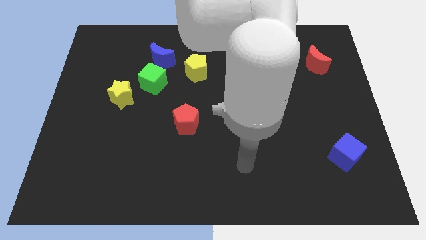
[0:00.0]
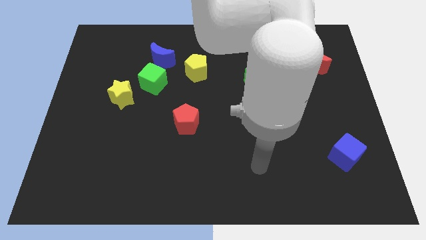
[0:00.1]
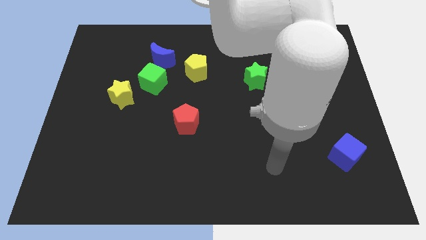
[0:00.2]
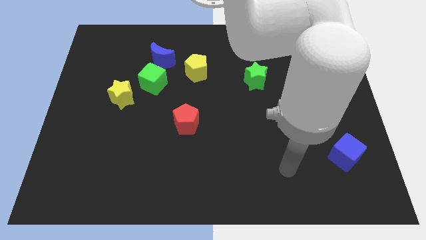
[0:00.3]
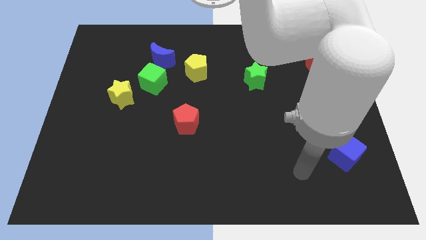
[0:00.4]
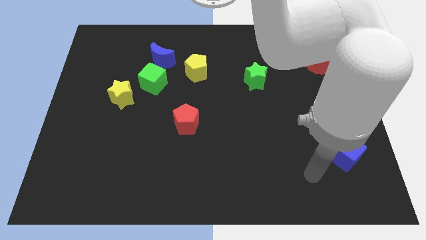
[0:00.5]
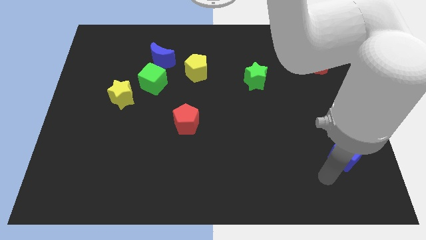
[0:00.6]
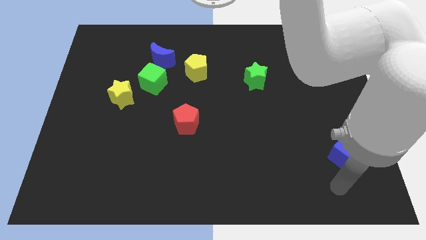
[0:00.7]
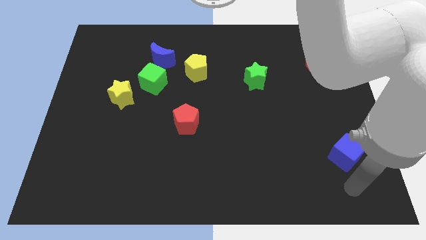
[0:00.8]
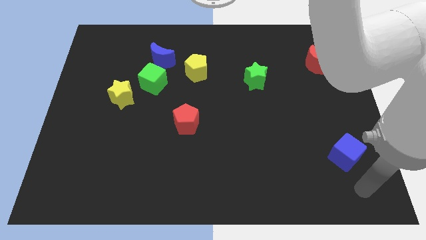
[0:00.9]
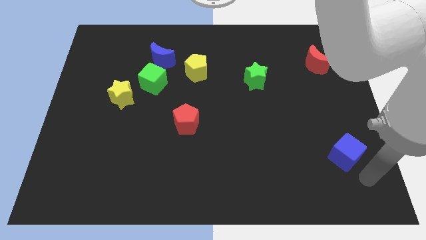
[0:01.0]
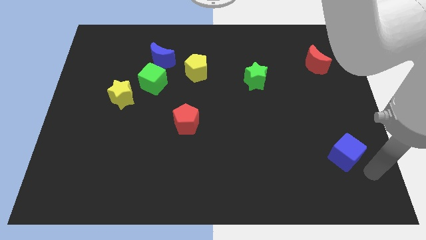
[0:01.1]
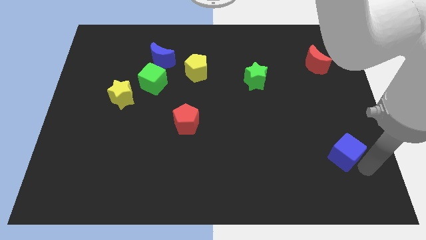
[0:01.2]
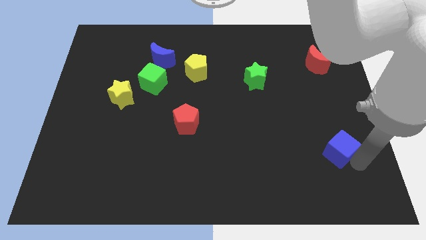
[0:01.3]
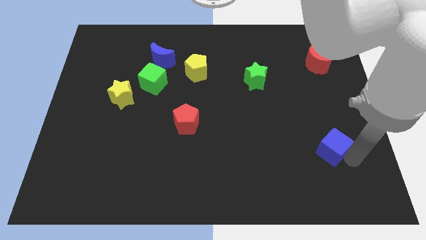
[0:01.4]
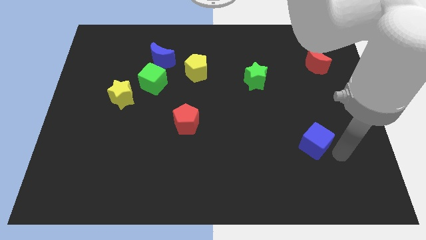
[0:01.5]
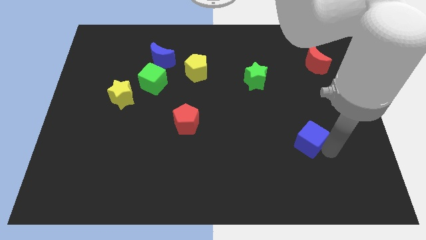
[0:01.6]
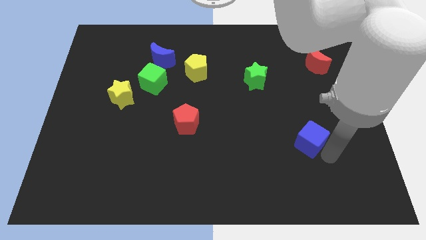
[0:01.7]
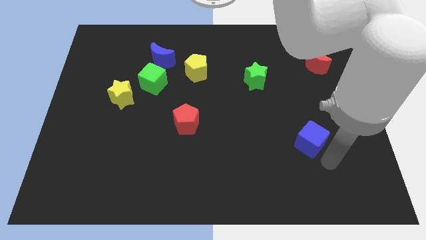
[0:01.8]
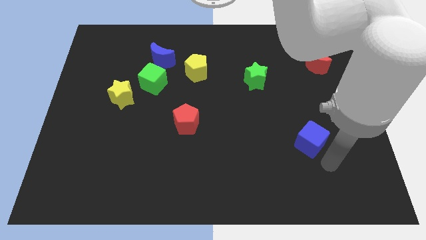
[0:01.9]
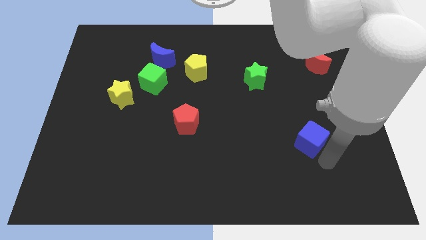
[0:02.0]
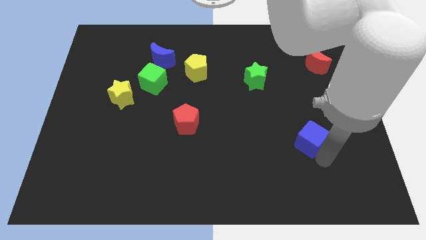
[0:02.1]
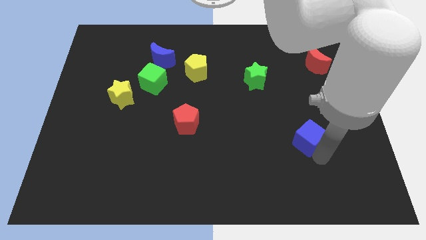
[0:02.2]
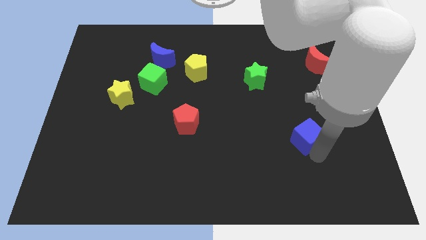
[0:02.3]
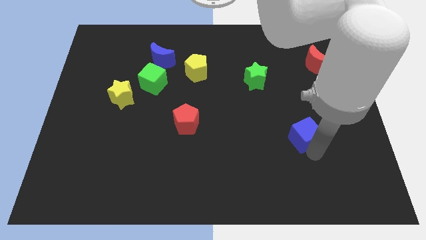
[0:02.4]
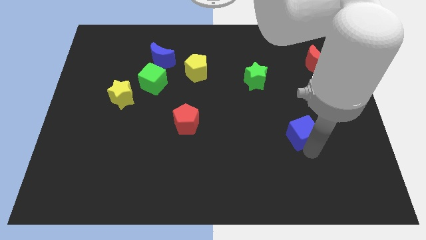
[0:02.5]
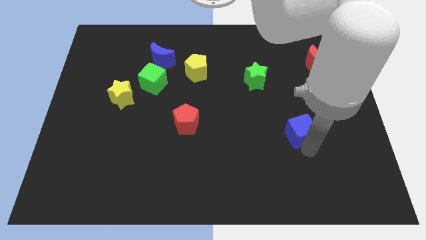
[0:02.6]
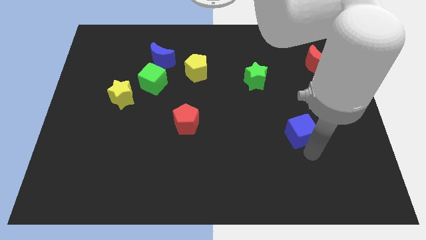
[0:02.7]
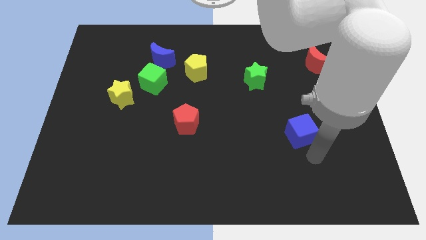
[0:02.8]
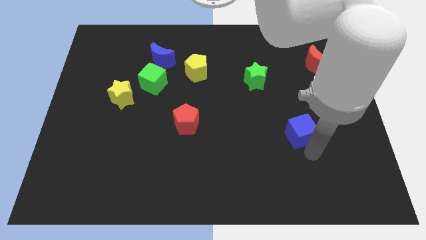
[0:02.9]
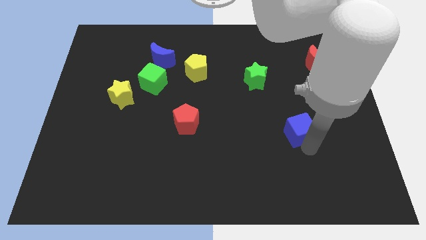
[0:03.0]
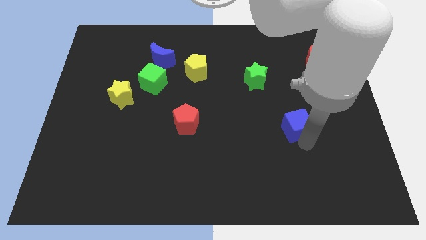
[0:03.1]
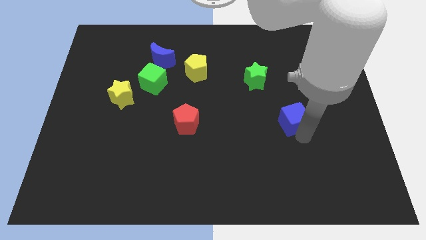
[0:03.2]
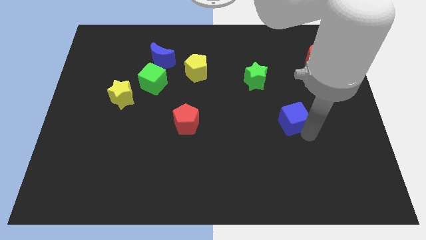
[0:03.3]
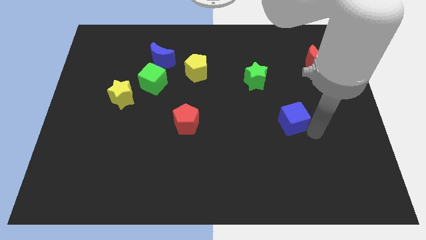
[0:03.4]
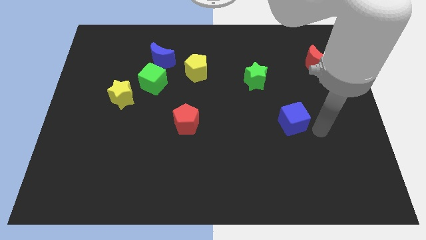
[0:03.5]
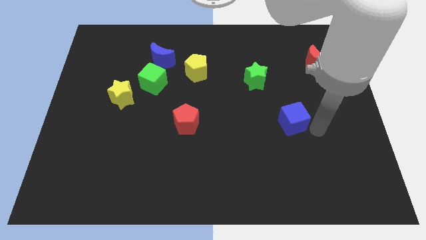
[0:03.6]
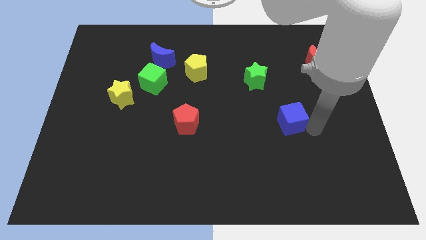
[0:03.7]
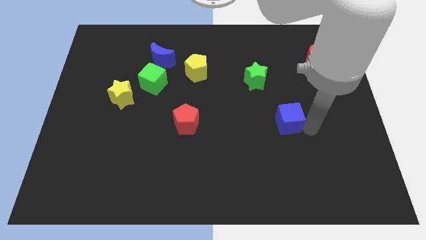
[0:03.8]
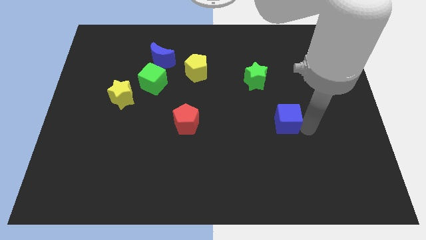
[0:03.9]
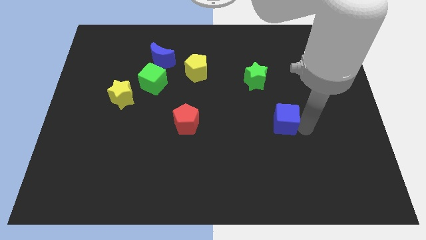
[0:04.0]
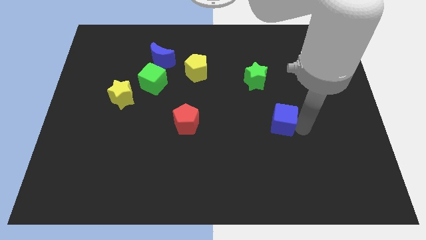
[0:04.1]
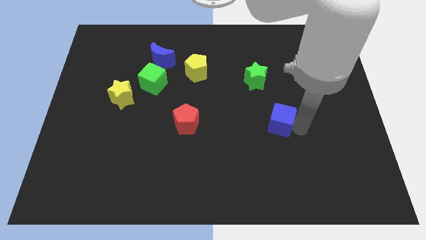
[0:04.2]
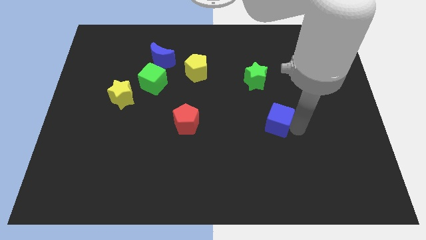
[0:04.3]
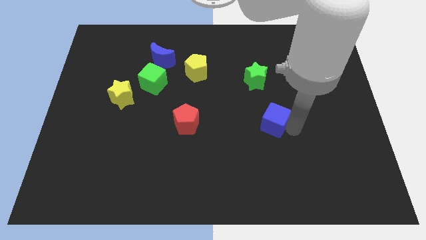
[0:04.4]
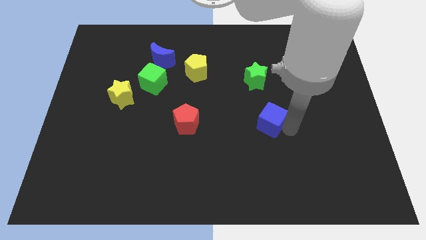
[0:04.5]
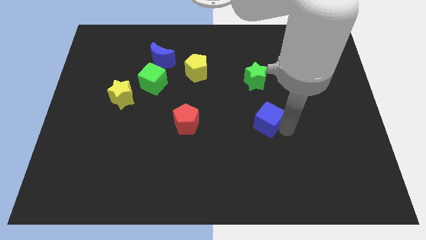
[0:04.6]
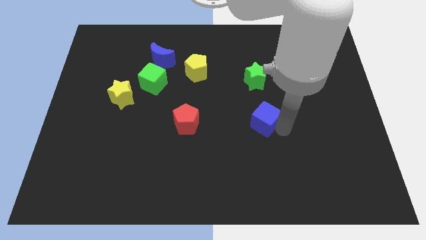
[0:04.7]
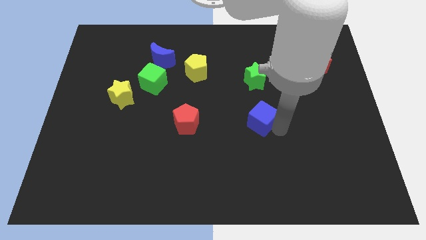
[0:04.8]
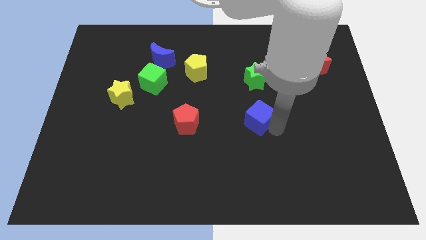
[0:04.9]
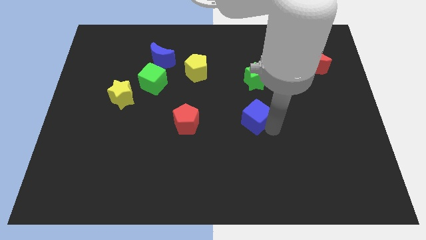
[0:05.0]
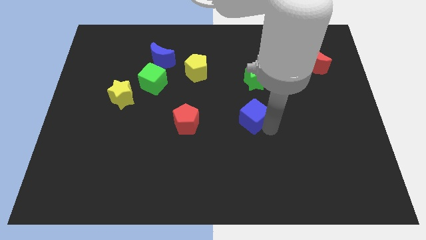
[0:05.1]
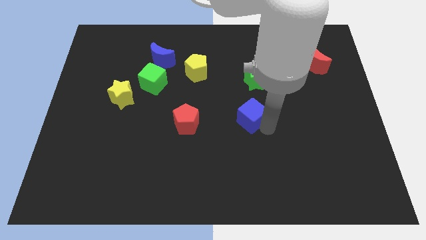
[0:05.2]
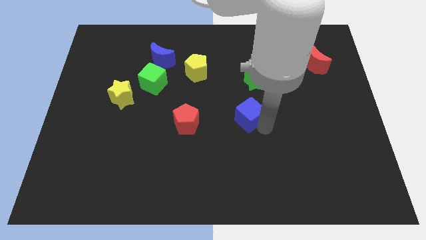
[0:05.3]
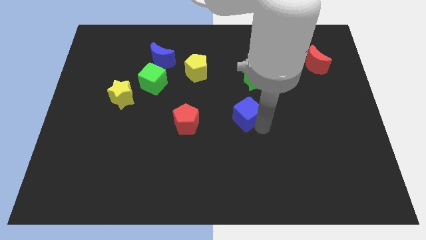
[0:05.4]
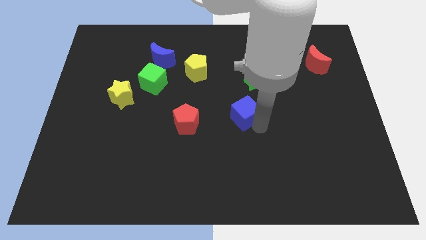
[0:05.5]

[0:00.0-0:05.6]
move the blue cube upwards and to the left

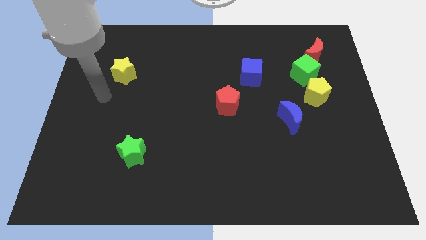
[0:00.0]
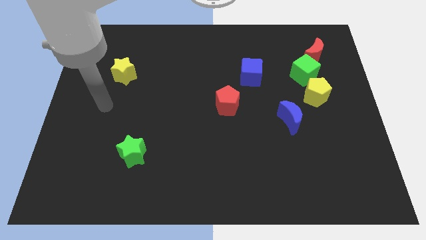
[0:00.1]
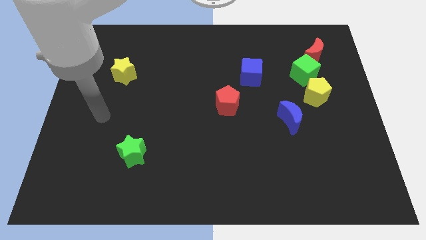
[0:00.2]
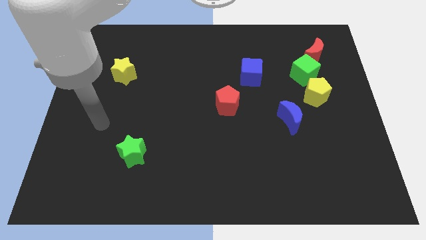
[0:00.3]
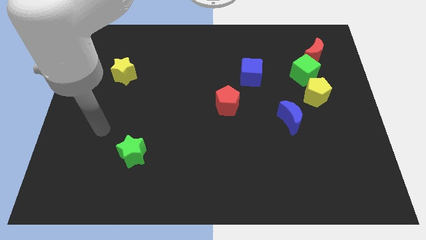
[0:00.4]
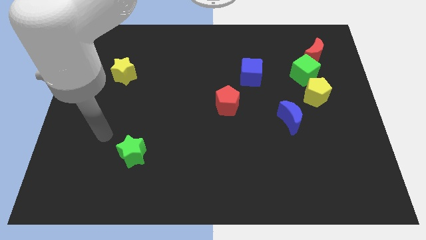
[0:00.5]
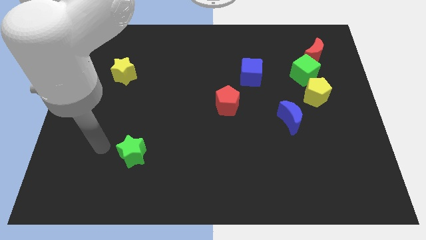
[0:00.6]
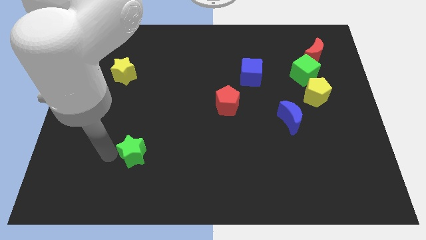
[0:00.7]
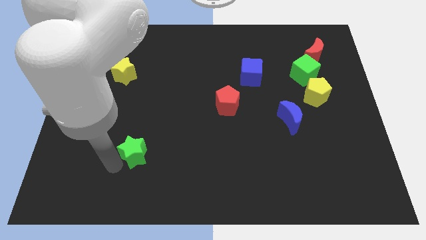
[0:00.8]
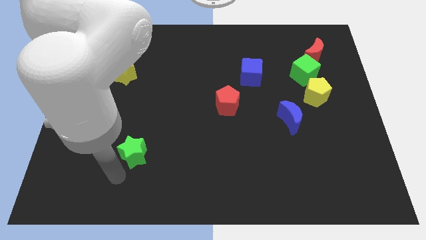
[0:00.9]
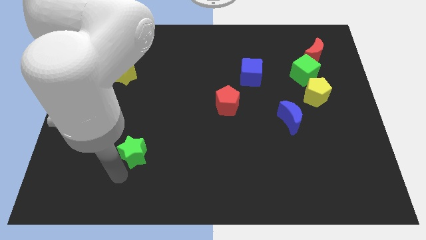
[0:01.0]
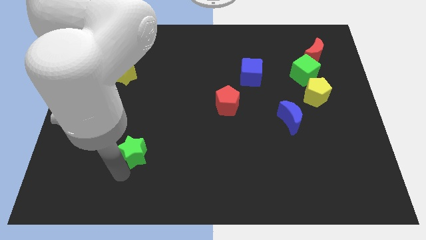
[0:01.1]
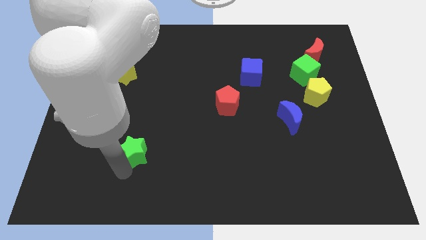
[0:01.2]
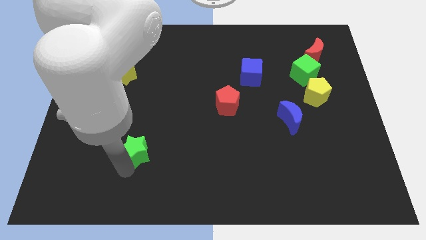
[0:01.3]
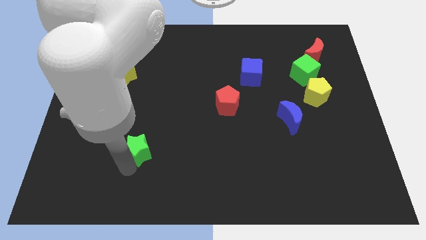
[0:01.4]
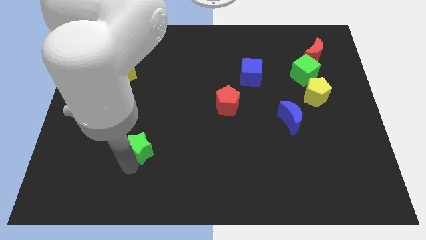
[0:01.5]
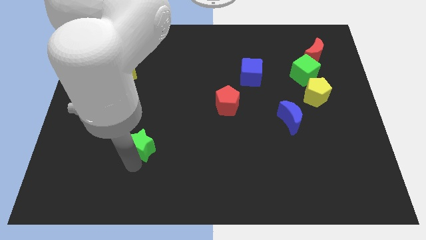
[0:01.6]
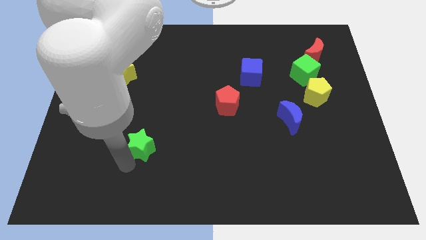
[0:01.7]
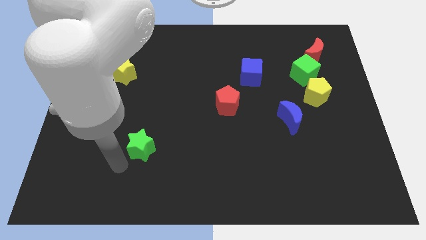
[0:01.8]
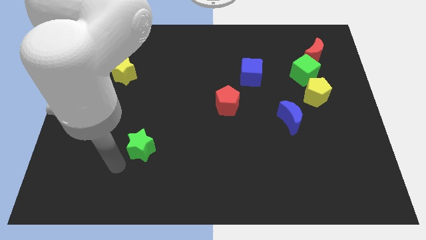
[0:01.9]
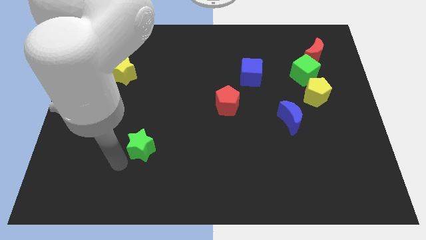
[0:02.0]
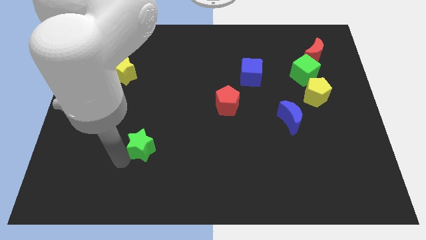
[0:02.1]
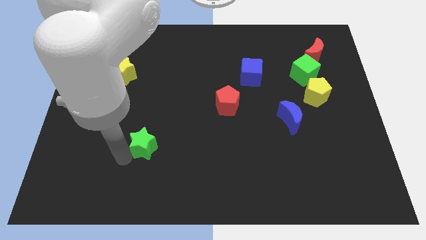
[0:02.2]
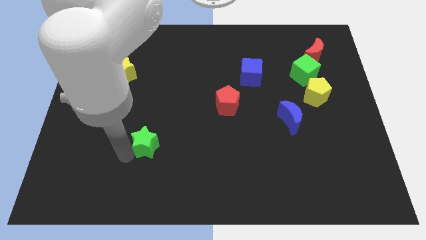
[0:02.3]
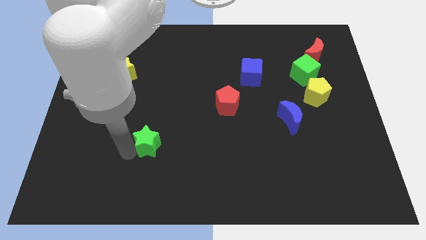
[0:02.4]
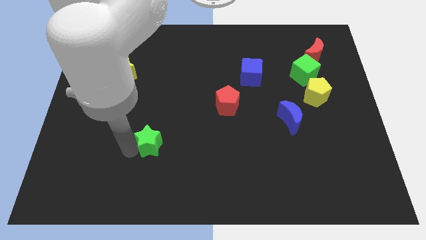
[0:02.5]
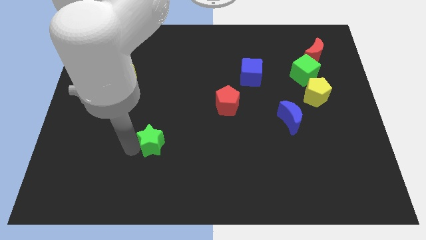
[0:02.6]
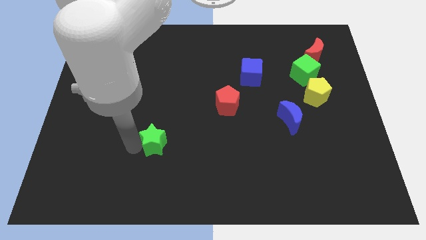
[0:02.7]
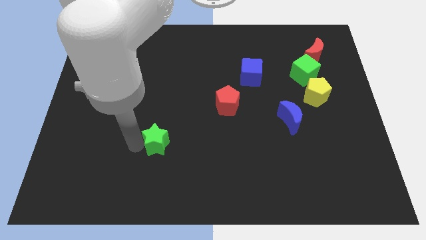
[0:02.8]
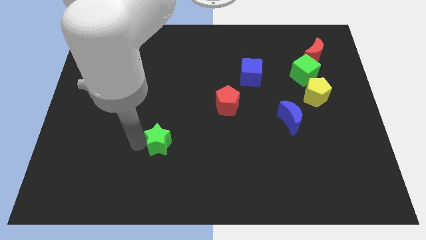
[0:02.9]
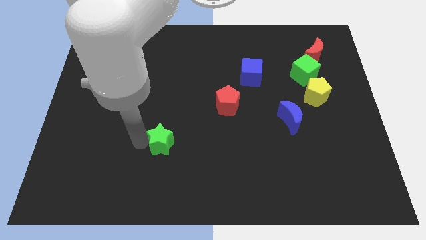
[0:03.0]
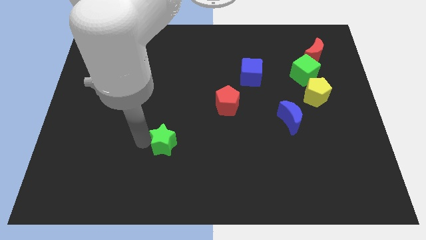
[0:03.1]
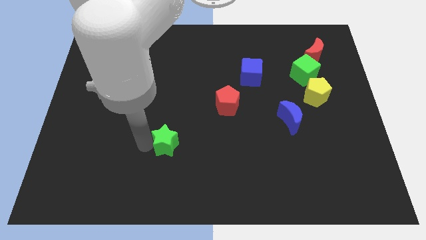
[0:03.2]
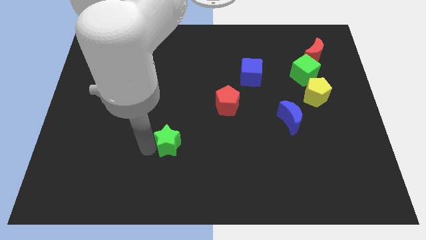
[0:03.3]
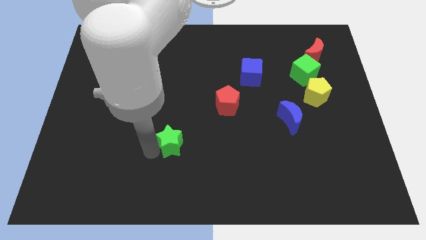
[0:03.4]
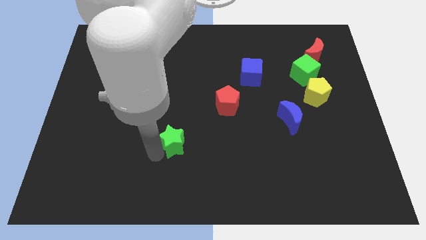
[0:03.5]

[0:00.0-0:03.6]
slightly push the green star up and right diagonally
